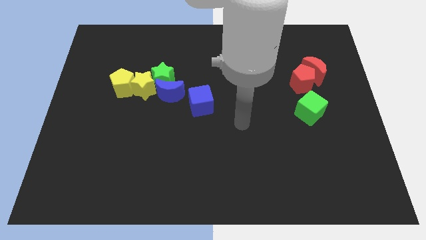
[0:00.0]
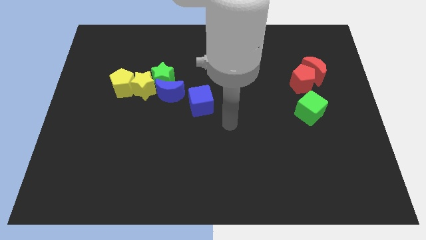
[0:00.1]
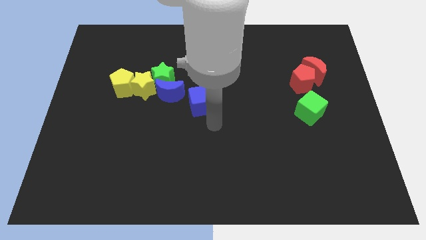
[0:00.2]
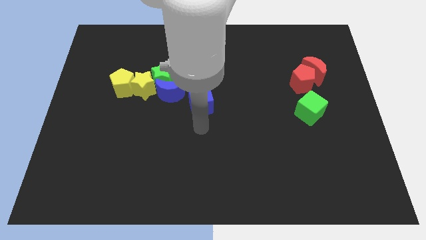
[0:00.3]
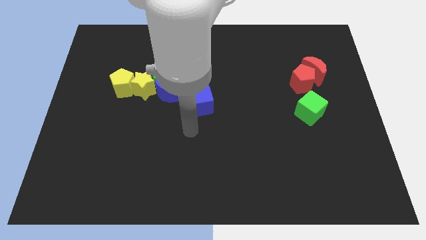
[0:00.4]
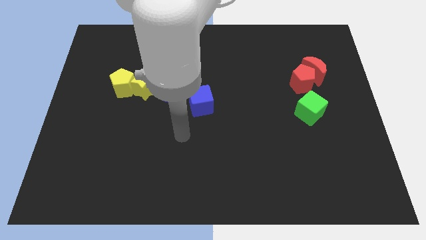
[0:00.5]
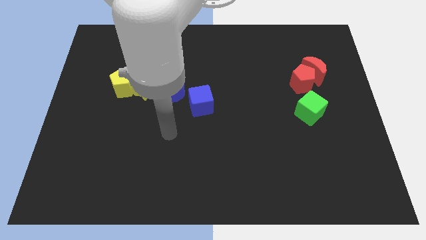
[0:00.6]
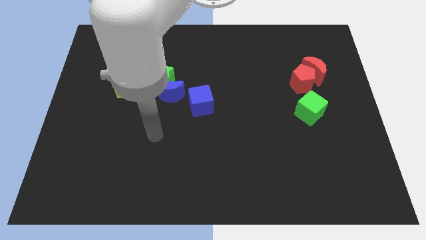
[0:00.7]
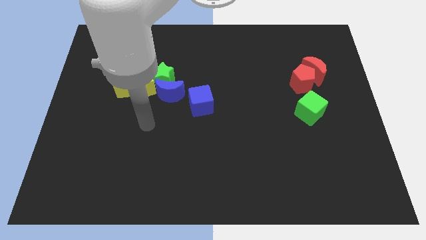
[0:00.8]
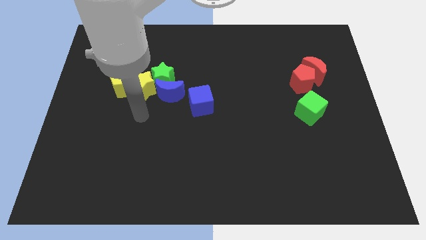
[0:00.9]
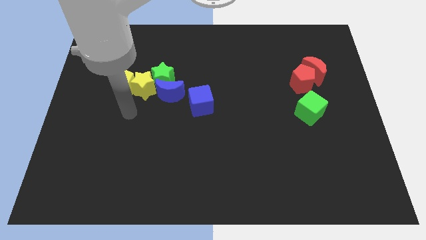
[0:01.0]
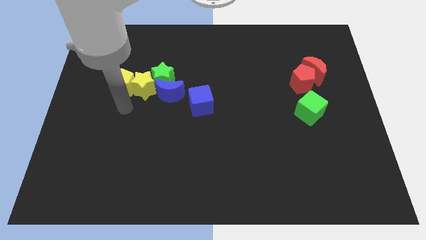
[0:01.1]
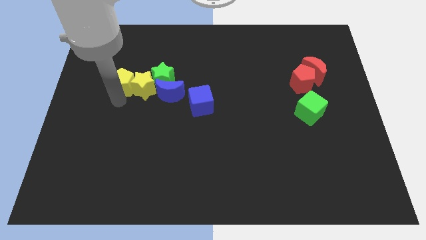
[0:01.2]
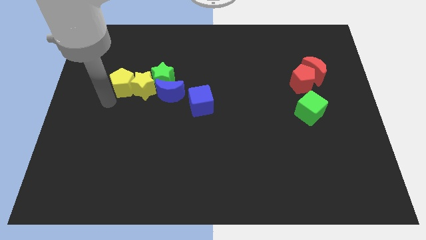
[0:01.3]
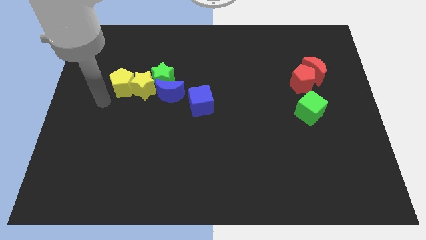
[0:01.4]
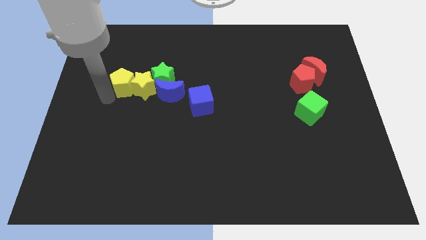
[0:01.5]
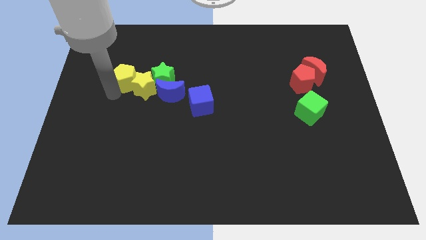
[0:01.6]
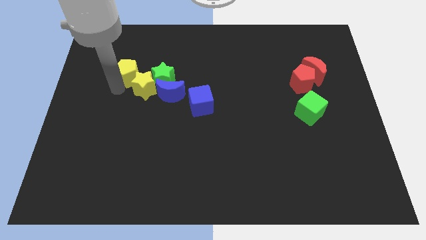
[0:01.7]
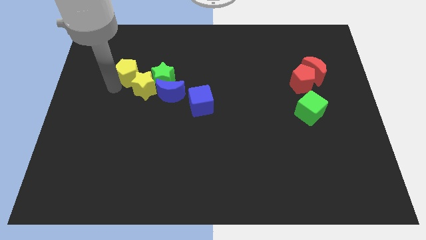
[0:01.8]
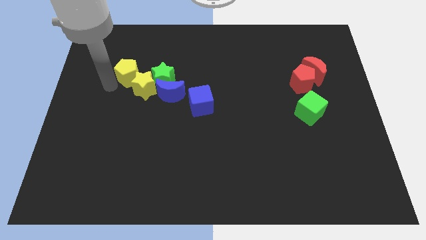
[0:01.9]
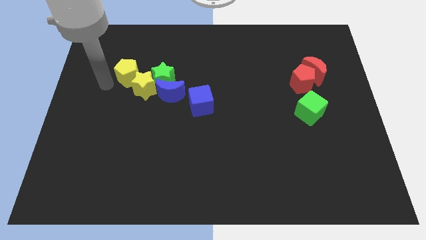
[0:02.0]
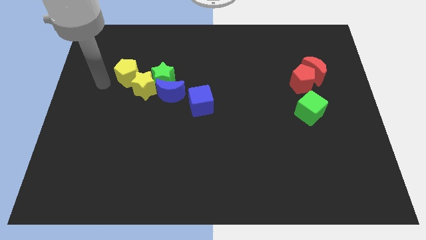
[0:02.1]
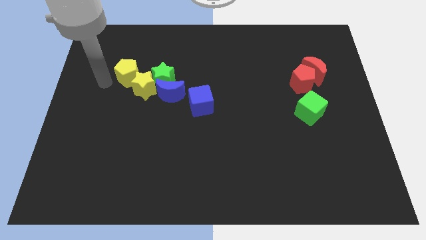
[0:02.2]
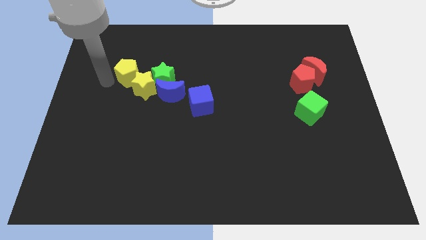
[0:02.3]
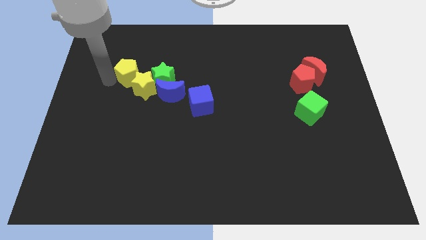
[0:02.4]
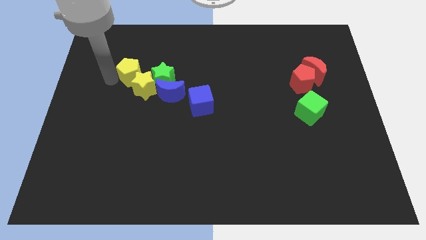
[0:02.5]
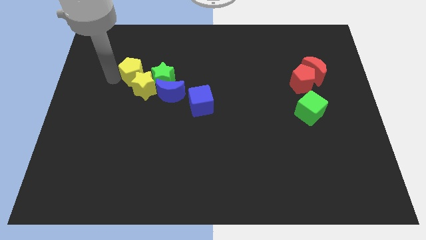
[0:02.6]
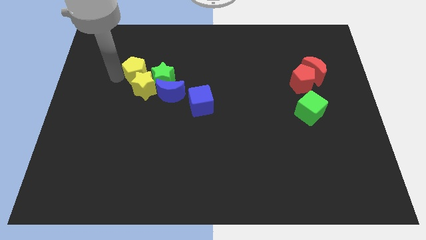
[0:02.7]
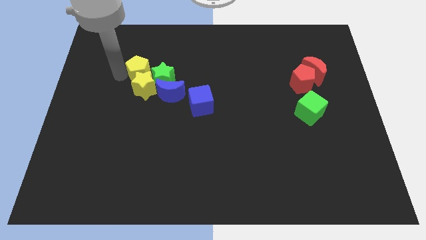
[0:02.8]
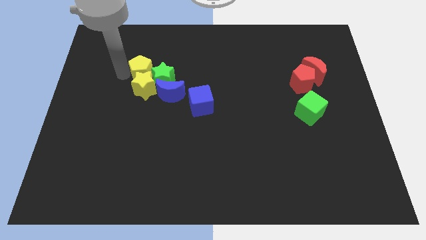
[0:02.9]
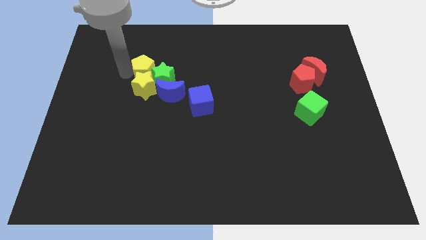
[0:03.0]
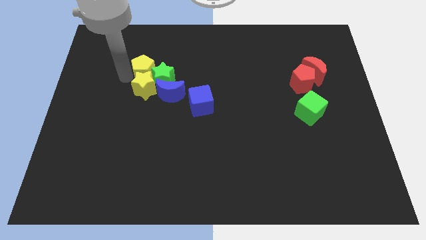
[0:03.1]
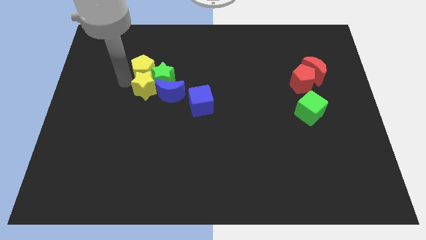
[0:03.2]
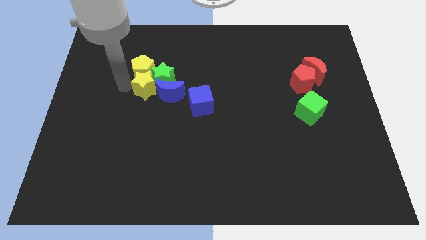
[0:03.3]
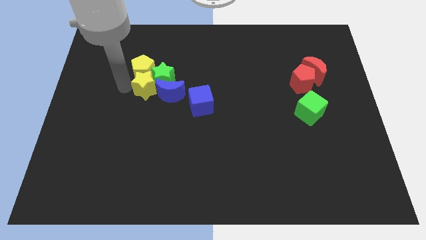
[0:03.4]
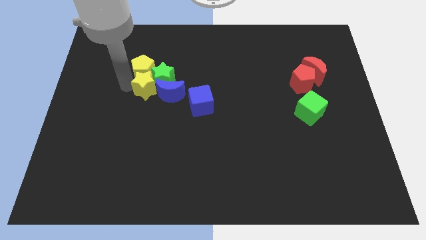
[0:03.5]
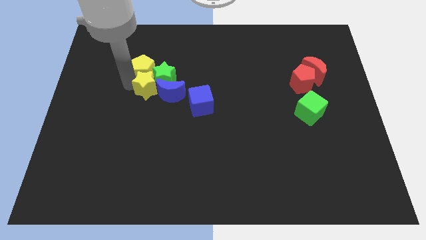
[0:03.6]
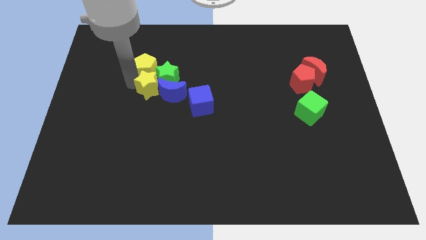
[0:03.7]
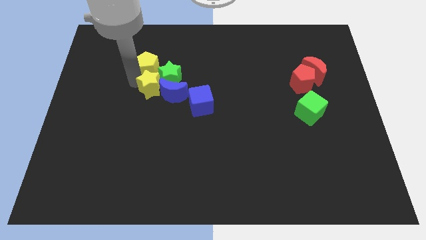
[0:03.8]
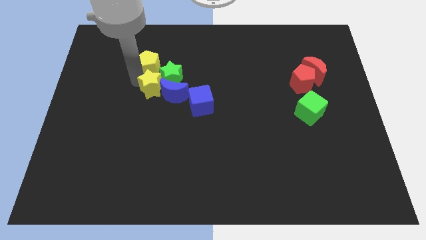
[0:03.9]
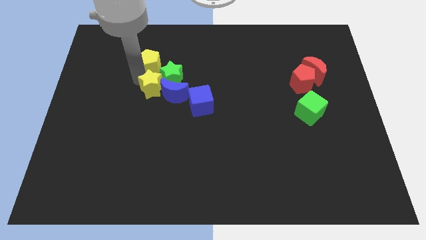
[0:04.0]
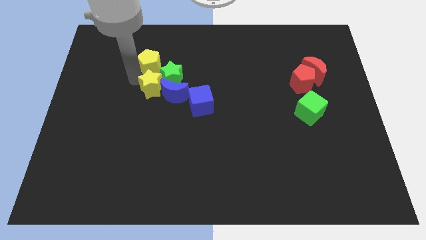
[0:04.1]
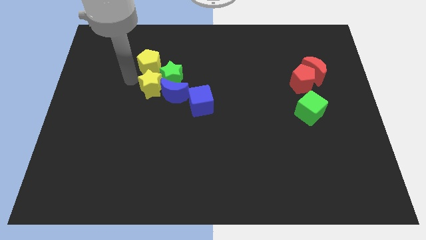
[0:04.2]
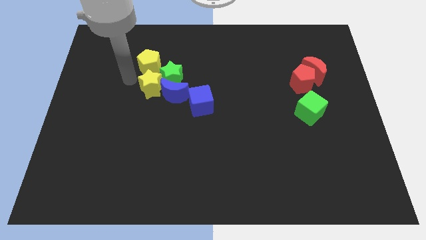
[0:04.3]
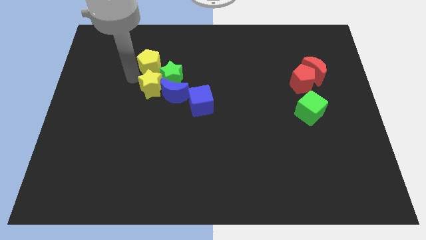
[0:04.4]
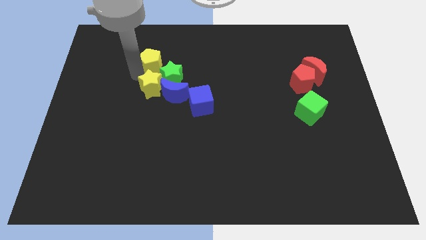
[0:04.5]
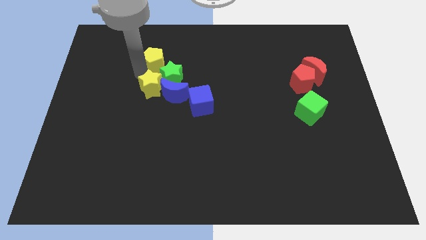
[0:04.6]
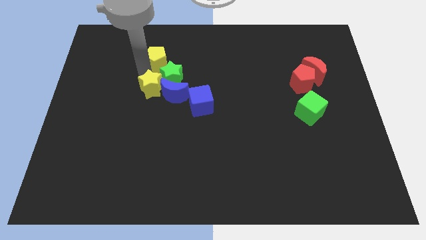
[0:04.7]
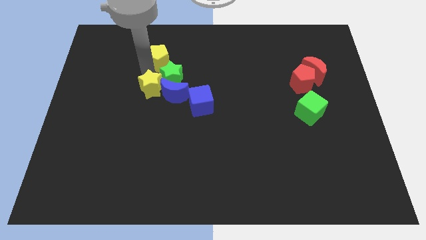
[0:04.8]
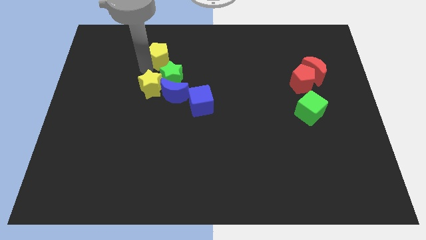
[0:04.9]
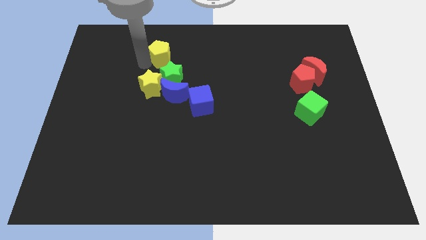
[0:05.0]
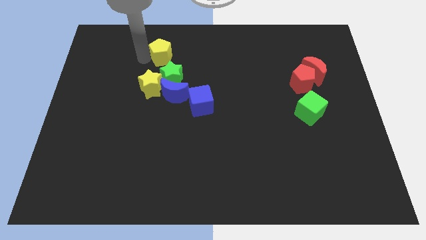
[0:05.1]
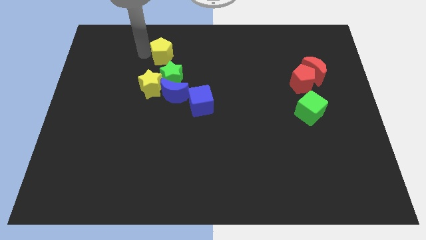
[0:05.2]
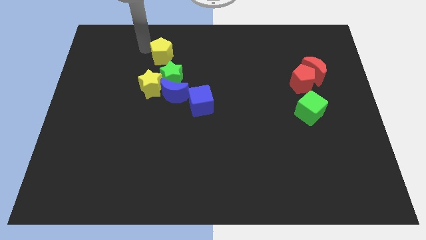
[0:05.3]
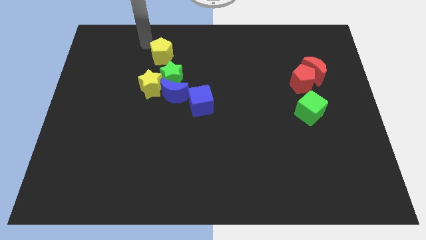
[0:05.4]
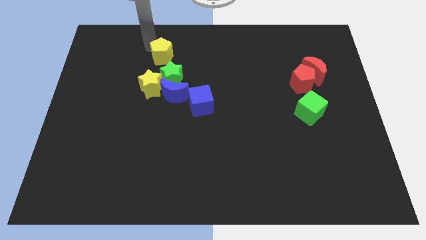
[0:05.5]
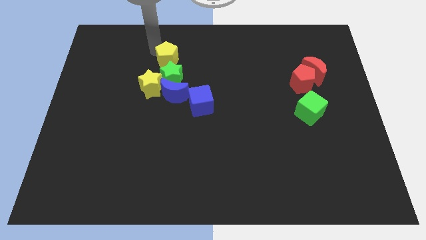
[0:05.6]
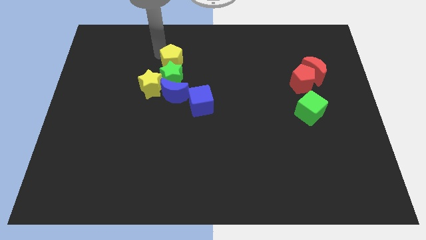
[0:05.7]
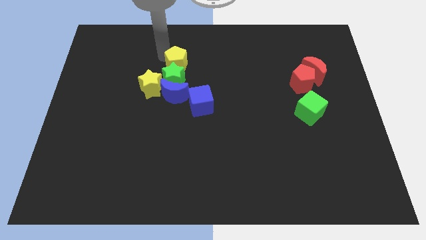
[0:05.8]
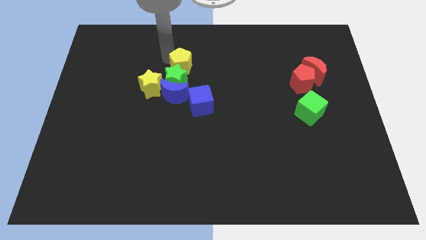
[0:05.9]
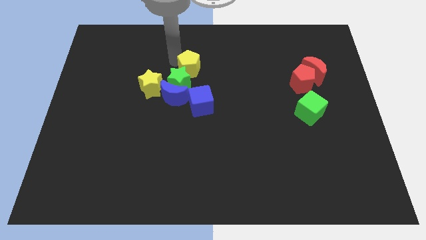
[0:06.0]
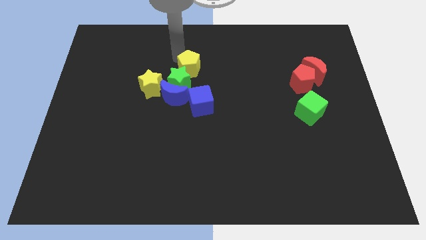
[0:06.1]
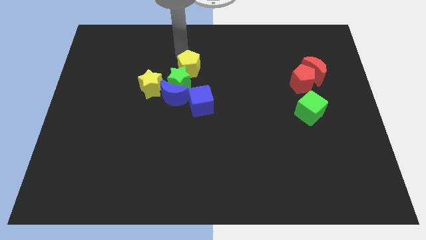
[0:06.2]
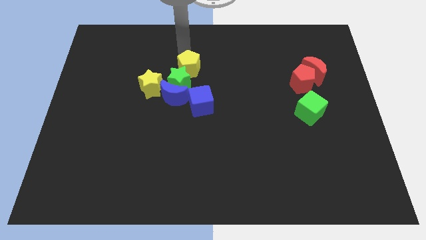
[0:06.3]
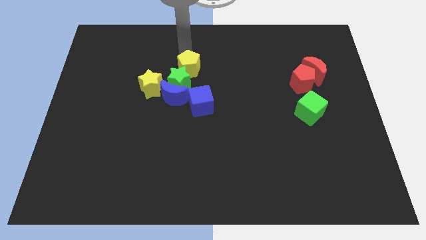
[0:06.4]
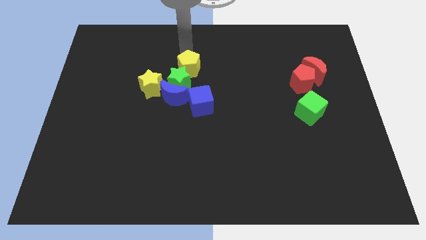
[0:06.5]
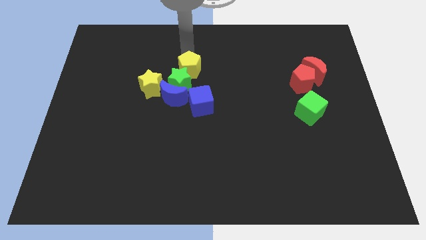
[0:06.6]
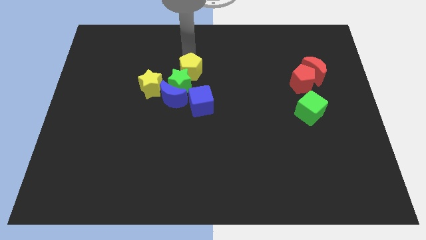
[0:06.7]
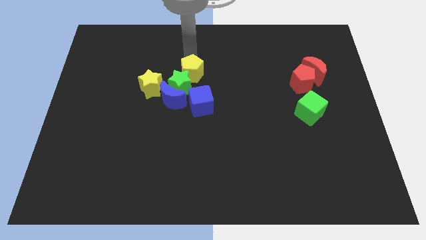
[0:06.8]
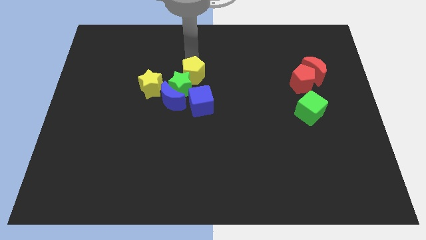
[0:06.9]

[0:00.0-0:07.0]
put the yellow pentagon to the right side of the yellow star

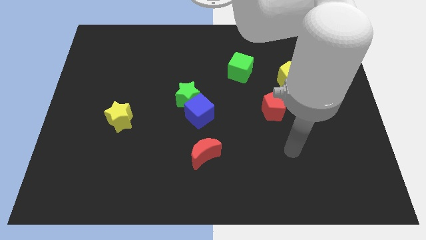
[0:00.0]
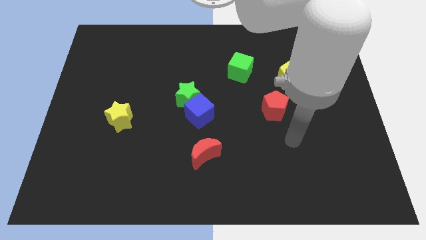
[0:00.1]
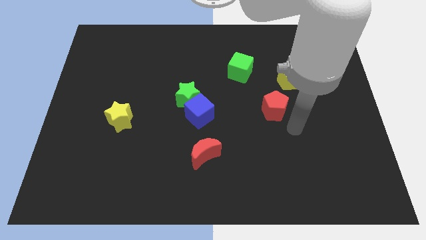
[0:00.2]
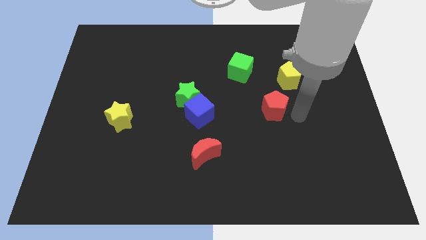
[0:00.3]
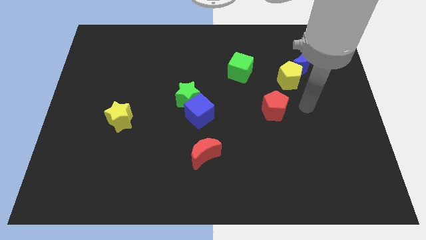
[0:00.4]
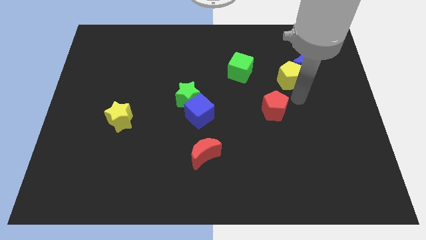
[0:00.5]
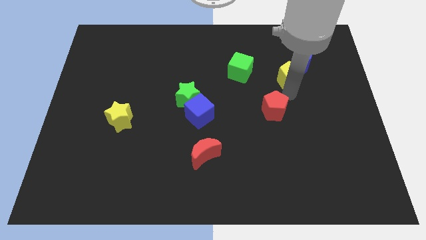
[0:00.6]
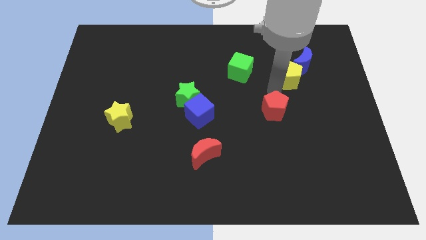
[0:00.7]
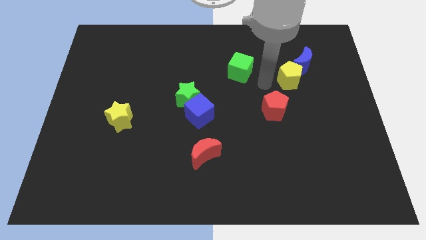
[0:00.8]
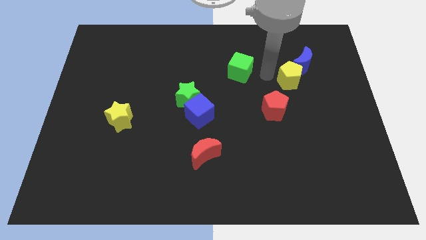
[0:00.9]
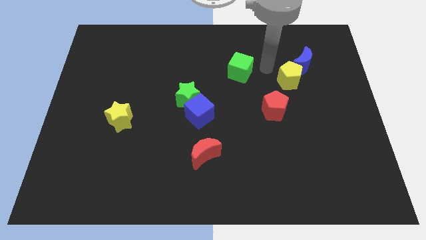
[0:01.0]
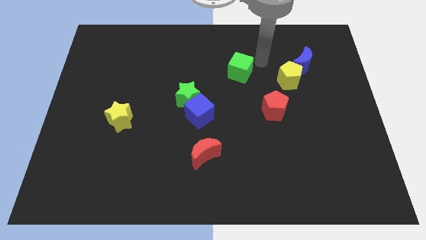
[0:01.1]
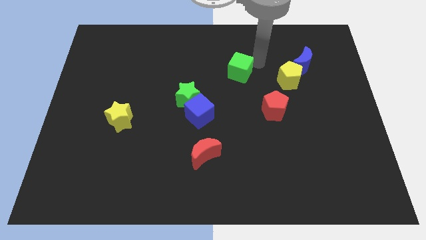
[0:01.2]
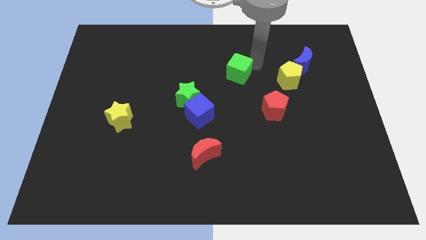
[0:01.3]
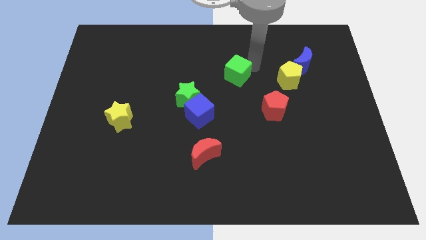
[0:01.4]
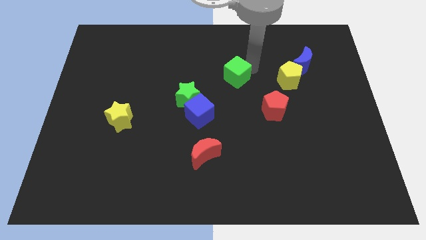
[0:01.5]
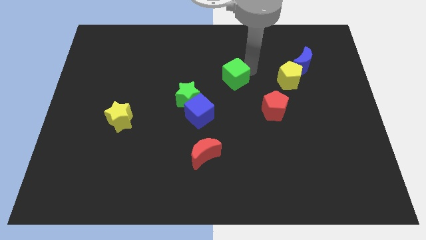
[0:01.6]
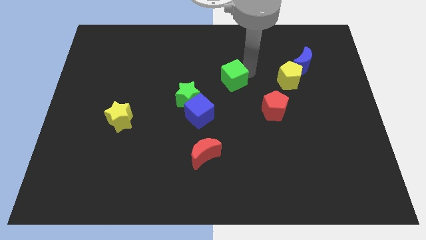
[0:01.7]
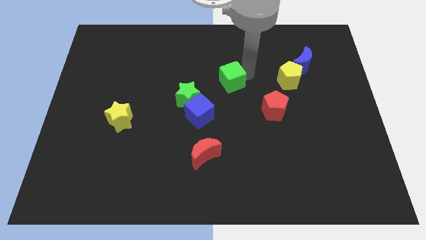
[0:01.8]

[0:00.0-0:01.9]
push the green cube diagonally up and to the right of the green star
